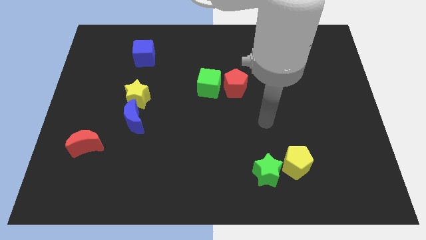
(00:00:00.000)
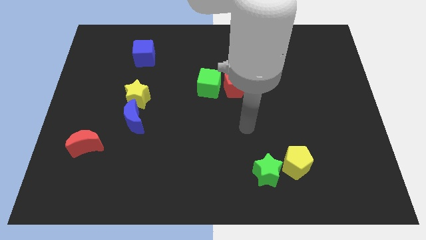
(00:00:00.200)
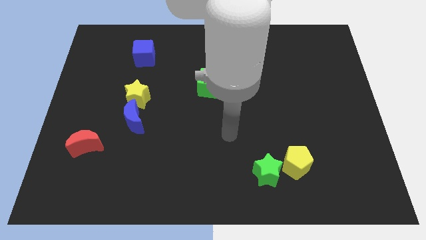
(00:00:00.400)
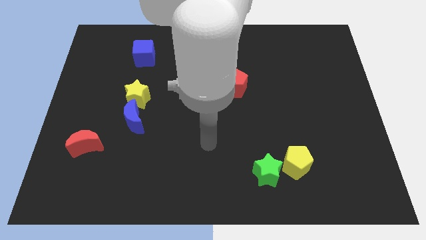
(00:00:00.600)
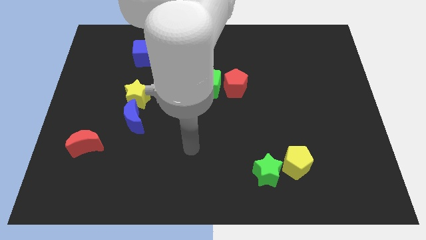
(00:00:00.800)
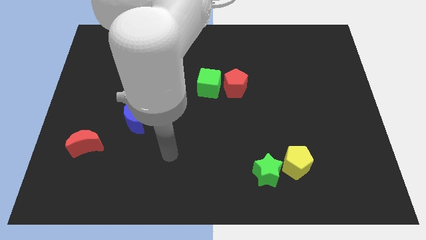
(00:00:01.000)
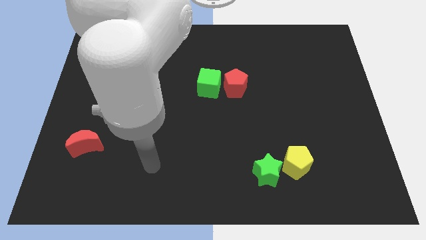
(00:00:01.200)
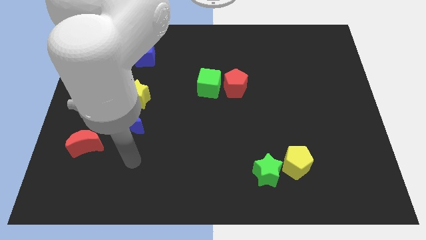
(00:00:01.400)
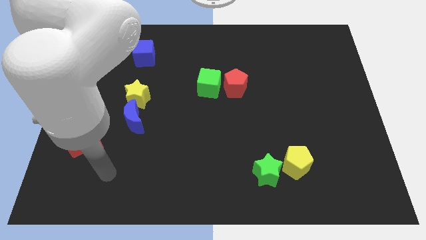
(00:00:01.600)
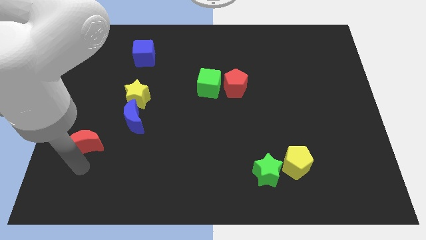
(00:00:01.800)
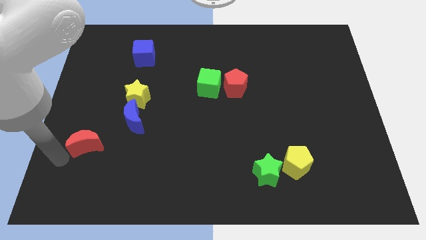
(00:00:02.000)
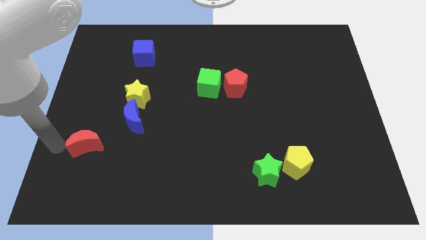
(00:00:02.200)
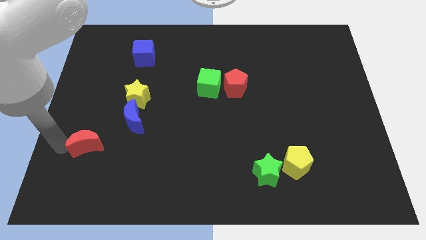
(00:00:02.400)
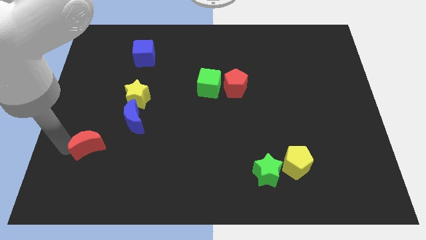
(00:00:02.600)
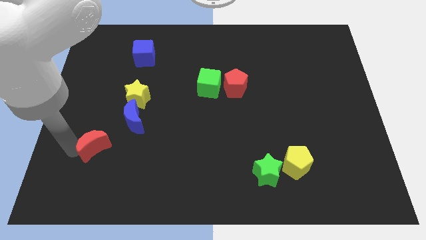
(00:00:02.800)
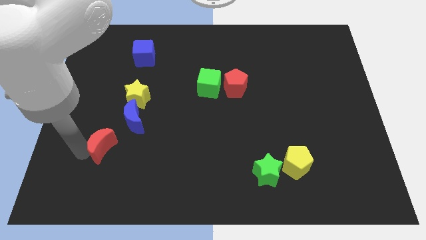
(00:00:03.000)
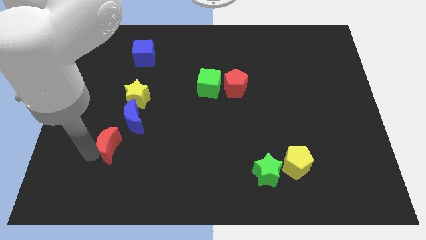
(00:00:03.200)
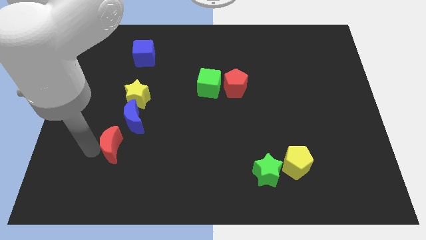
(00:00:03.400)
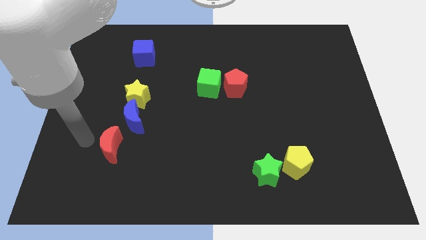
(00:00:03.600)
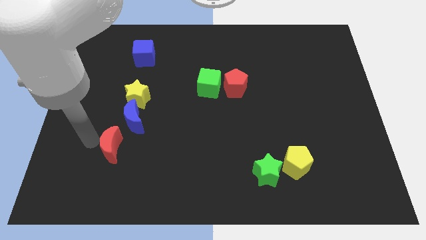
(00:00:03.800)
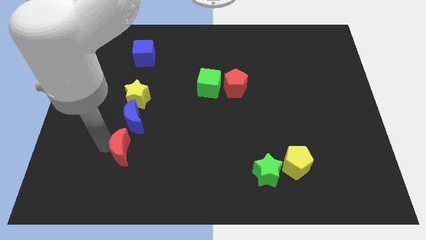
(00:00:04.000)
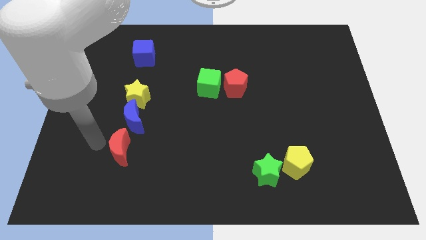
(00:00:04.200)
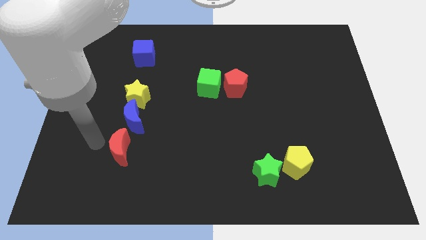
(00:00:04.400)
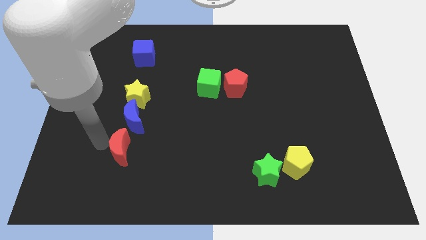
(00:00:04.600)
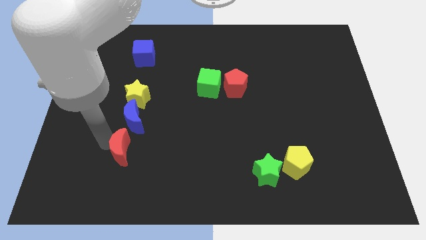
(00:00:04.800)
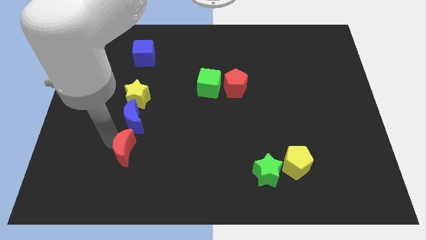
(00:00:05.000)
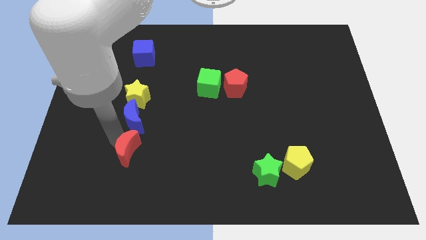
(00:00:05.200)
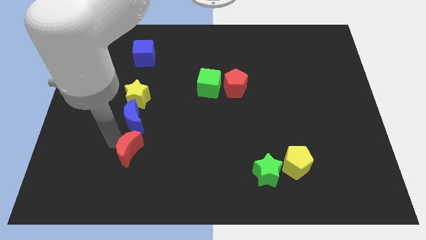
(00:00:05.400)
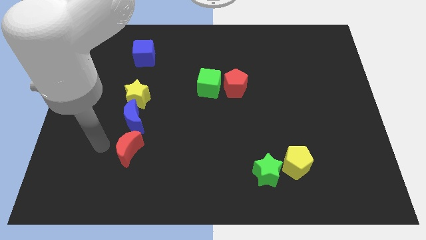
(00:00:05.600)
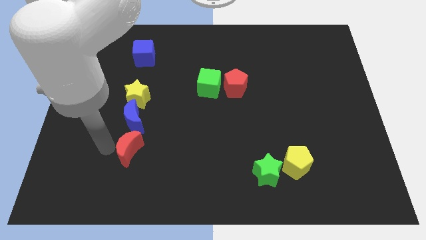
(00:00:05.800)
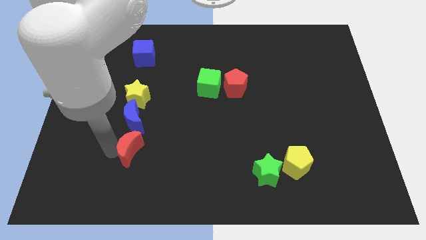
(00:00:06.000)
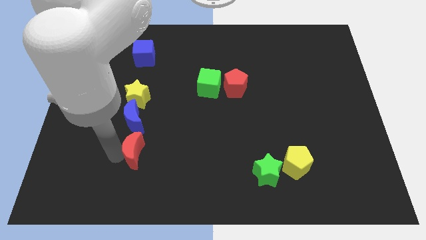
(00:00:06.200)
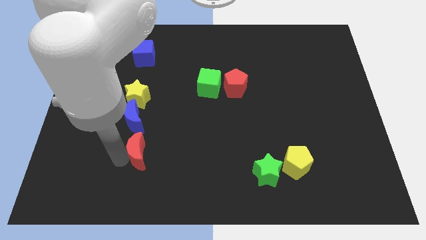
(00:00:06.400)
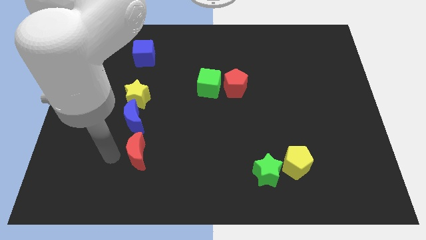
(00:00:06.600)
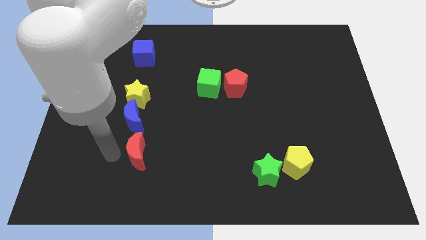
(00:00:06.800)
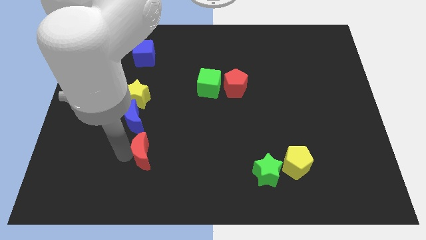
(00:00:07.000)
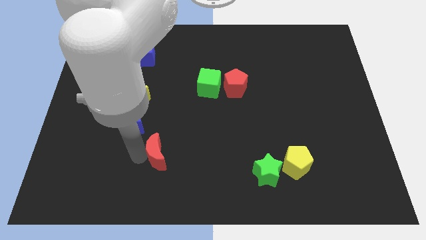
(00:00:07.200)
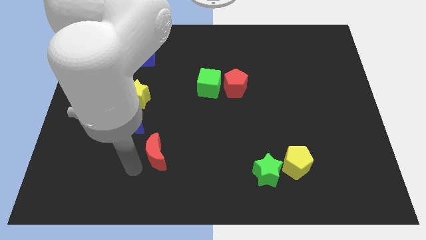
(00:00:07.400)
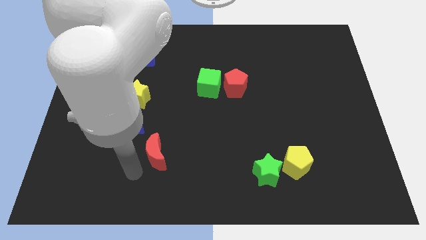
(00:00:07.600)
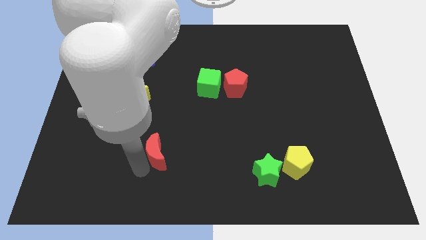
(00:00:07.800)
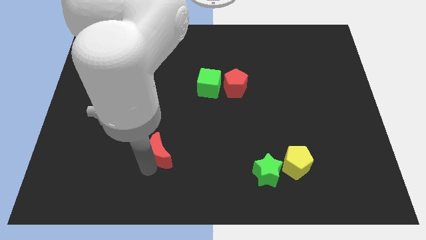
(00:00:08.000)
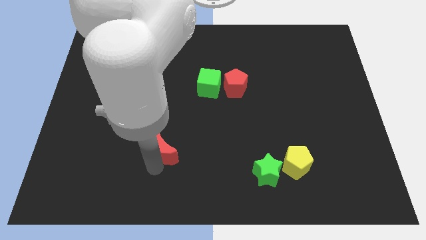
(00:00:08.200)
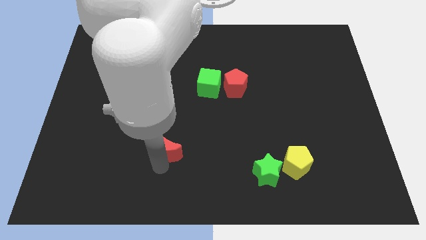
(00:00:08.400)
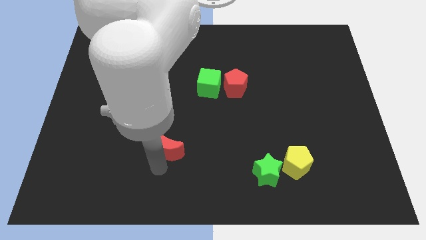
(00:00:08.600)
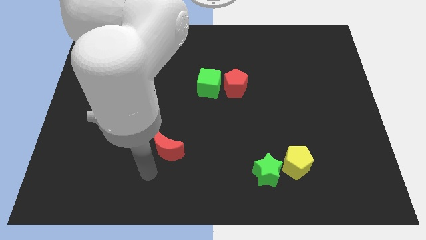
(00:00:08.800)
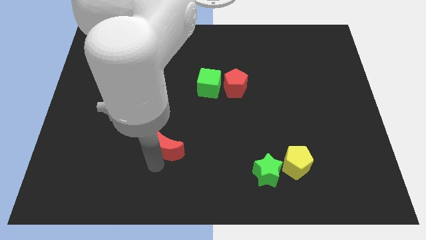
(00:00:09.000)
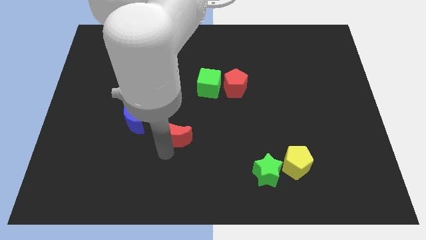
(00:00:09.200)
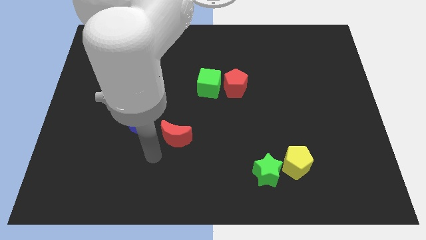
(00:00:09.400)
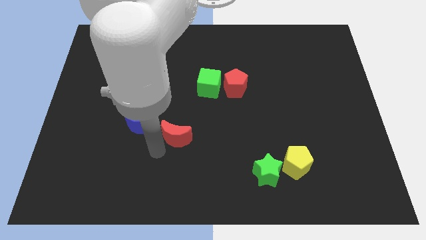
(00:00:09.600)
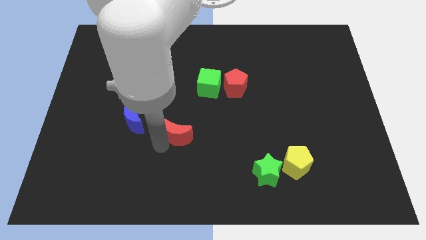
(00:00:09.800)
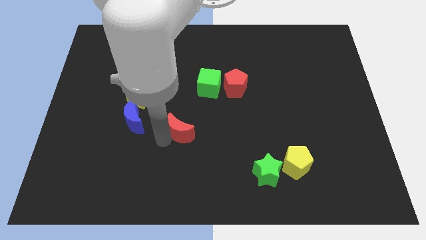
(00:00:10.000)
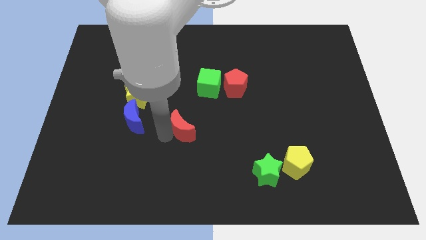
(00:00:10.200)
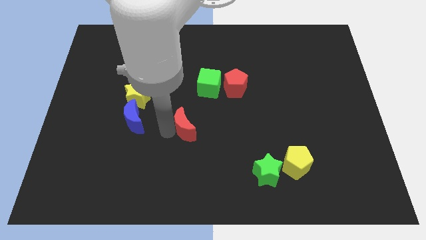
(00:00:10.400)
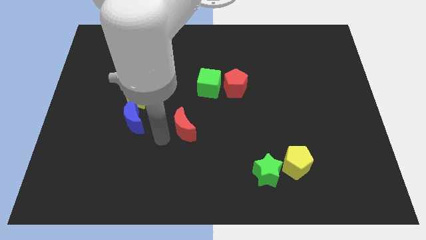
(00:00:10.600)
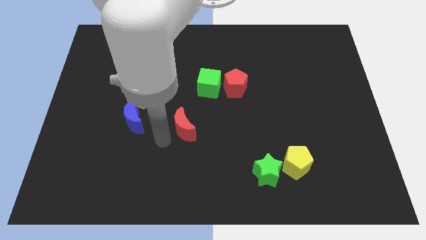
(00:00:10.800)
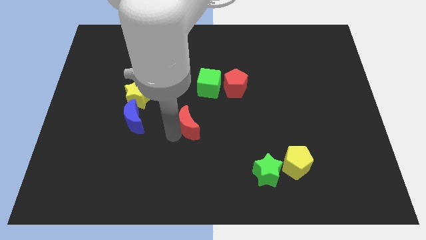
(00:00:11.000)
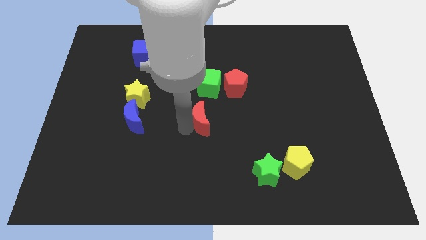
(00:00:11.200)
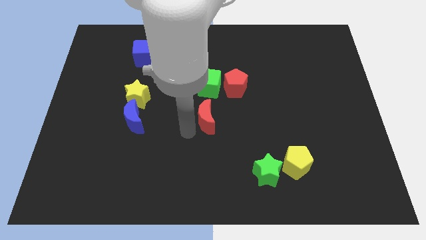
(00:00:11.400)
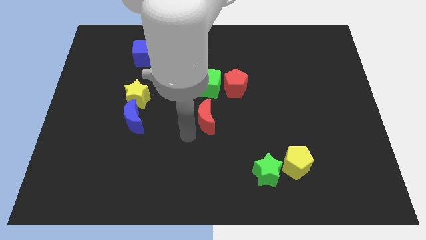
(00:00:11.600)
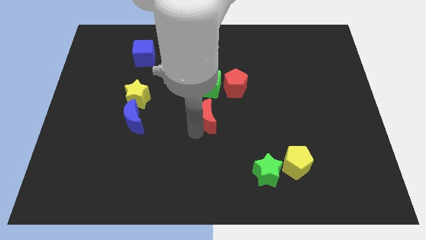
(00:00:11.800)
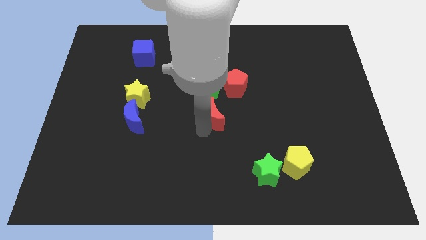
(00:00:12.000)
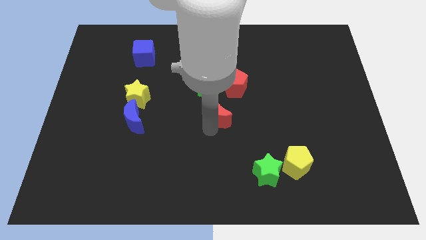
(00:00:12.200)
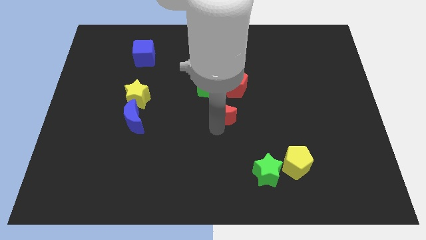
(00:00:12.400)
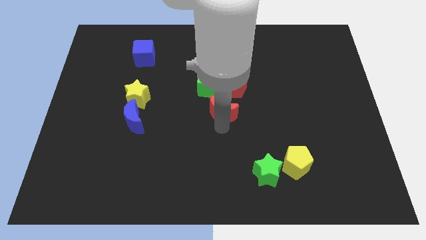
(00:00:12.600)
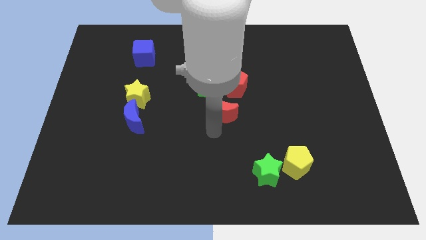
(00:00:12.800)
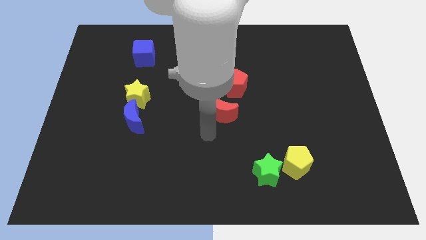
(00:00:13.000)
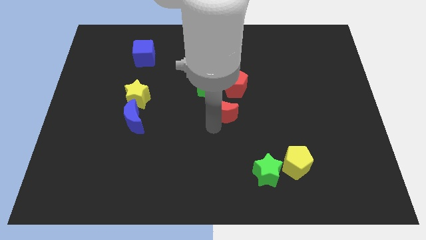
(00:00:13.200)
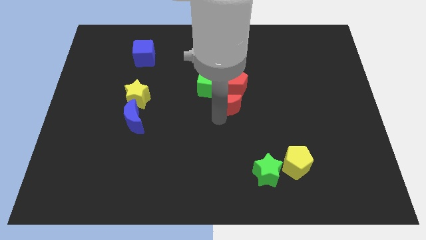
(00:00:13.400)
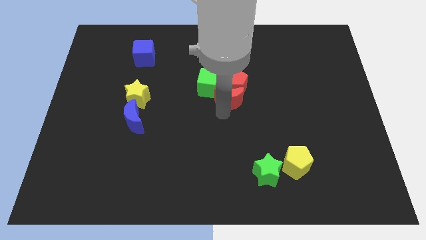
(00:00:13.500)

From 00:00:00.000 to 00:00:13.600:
slide the red moon next to the red pentagon

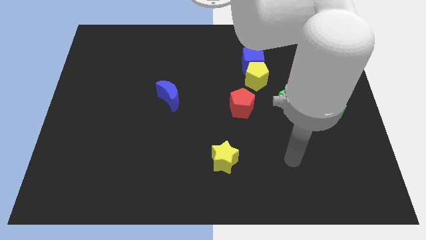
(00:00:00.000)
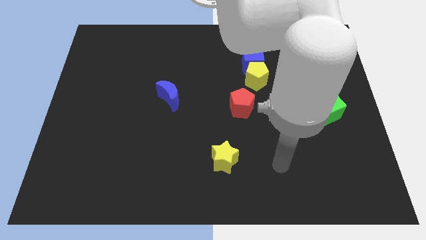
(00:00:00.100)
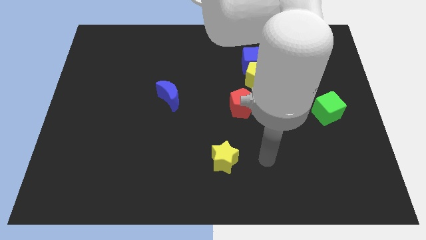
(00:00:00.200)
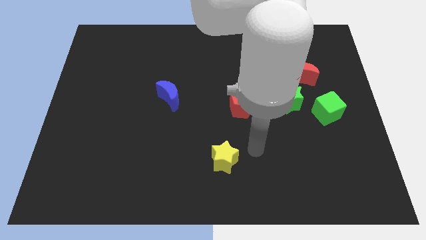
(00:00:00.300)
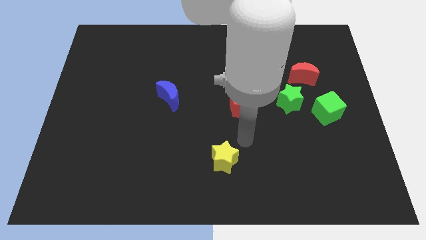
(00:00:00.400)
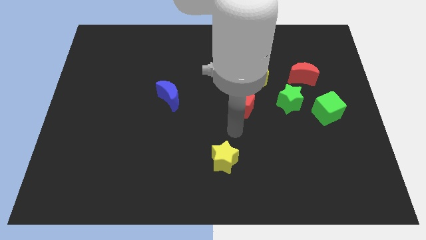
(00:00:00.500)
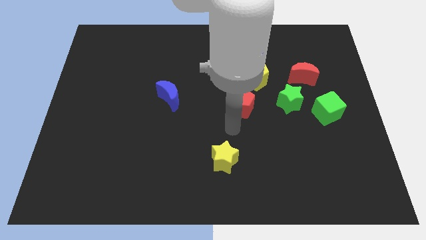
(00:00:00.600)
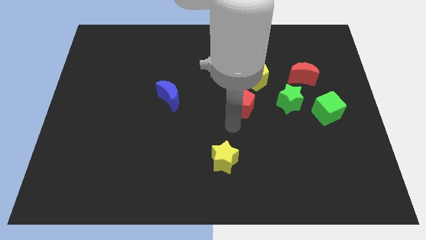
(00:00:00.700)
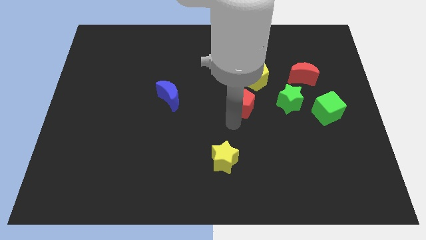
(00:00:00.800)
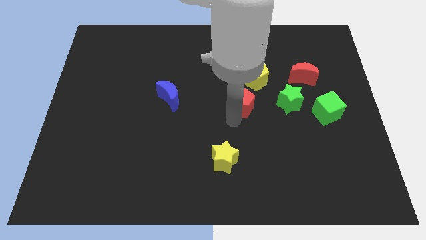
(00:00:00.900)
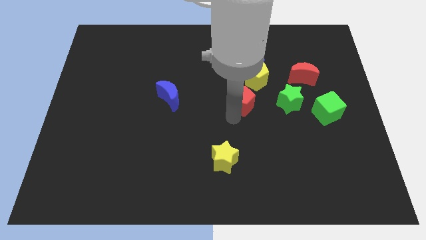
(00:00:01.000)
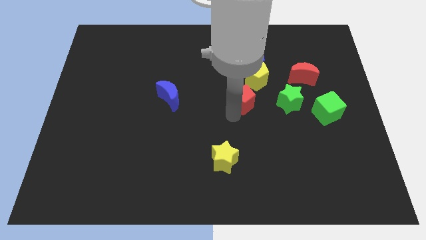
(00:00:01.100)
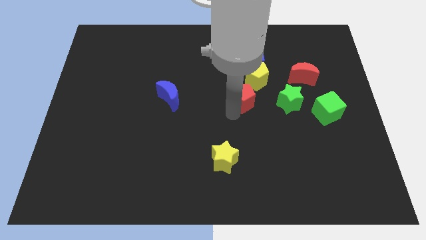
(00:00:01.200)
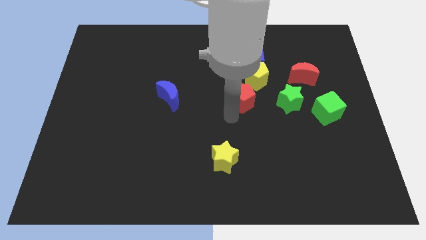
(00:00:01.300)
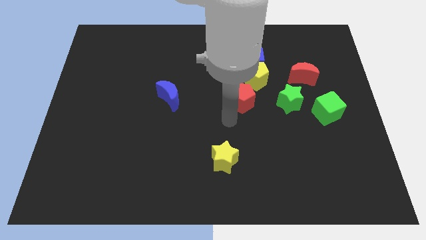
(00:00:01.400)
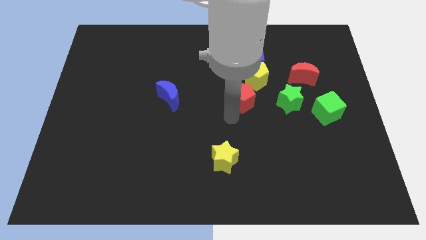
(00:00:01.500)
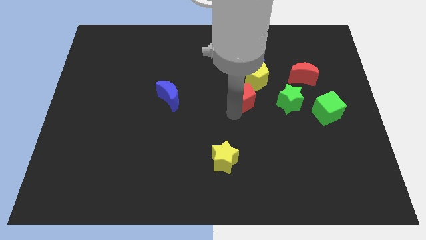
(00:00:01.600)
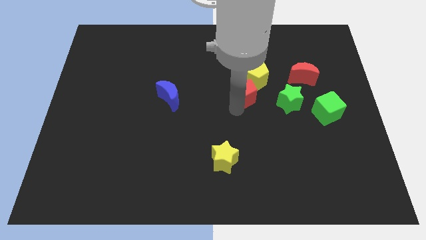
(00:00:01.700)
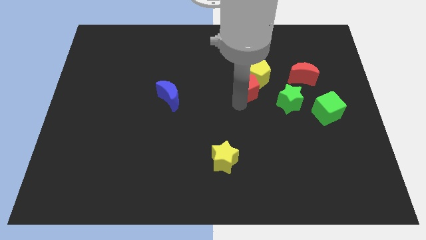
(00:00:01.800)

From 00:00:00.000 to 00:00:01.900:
slide the red pentagon close to the yellow pentagon
